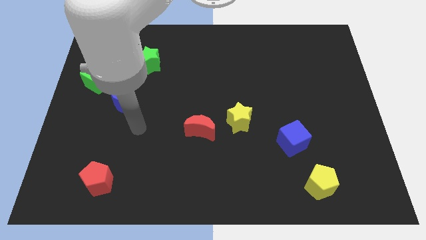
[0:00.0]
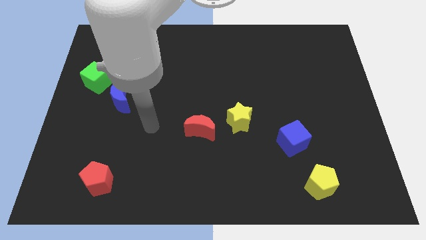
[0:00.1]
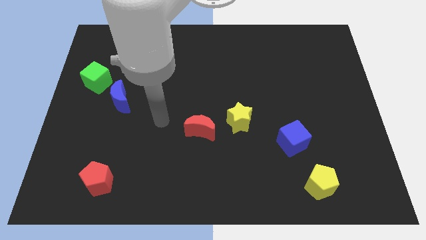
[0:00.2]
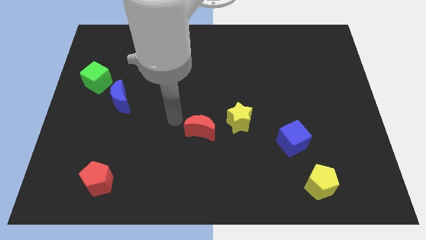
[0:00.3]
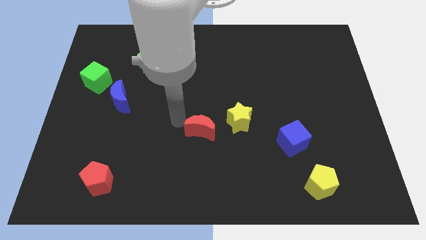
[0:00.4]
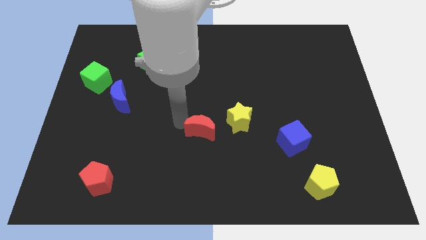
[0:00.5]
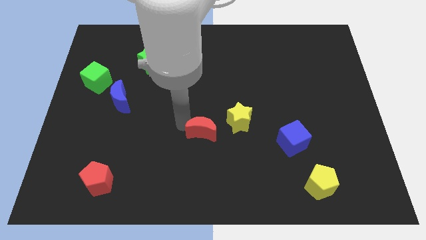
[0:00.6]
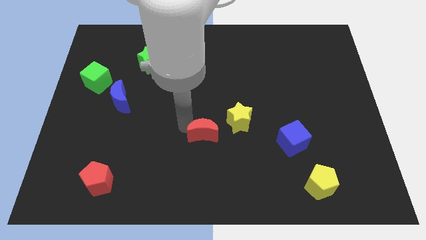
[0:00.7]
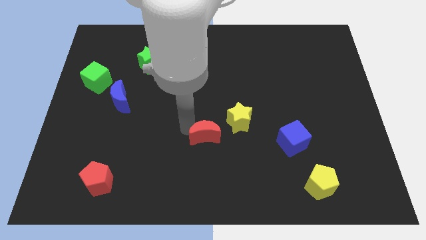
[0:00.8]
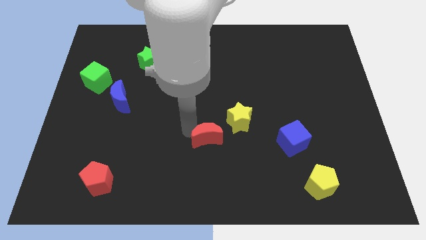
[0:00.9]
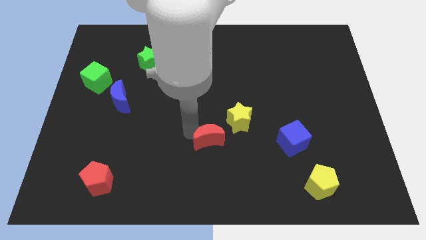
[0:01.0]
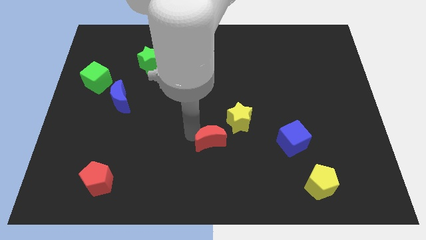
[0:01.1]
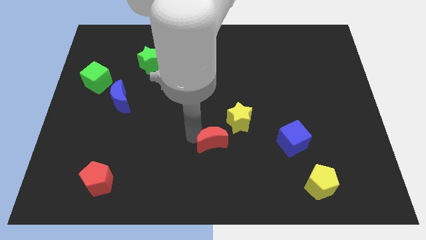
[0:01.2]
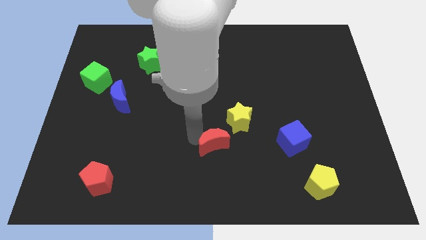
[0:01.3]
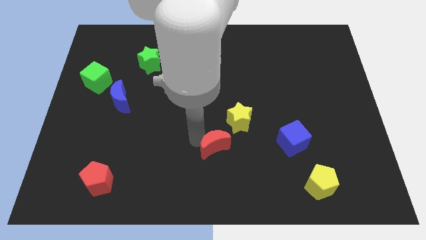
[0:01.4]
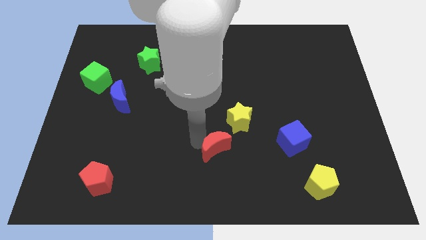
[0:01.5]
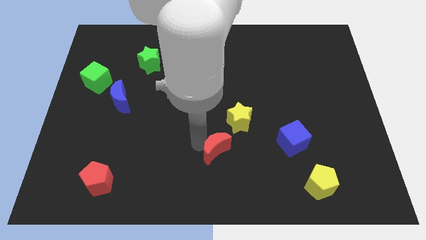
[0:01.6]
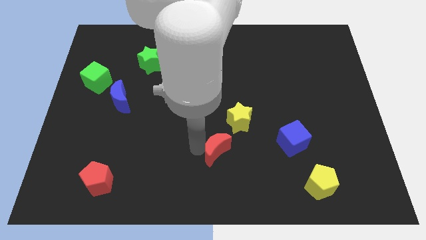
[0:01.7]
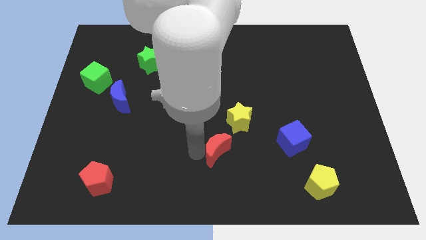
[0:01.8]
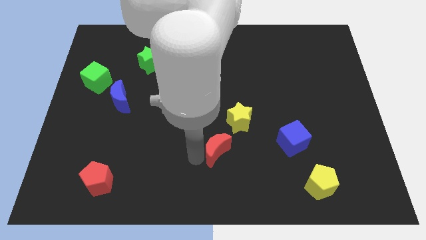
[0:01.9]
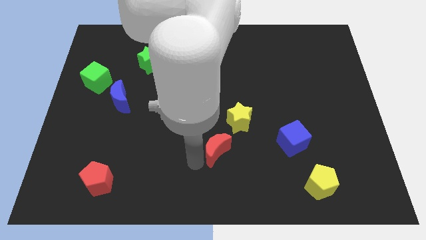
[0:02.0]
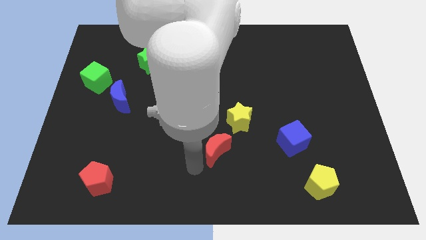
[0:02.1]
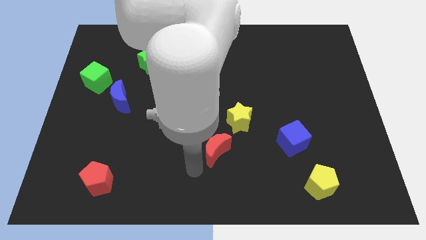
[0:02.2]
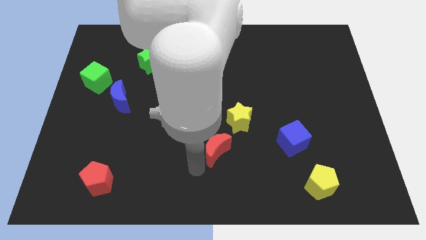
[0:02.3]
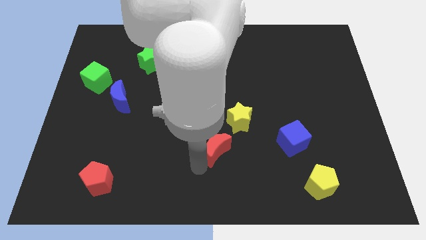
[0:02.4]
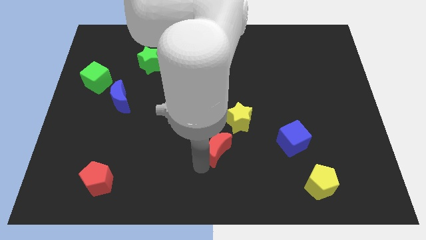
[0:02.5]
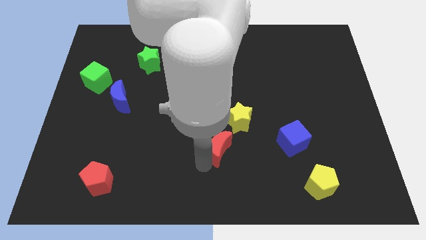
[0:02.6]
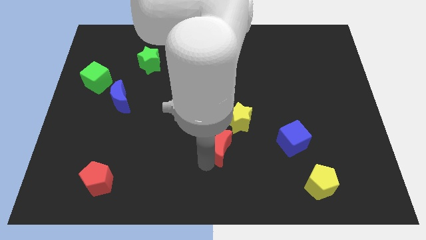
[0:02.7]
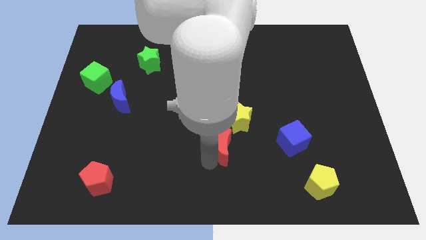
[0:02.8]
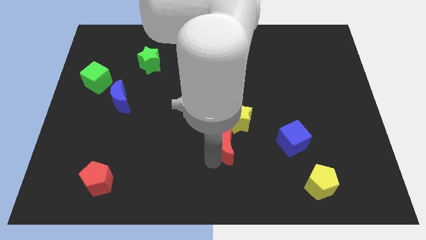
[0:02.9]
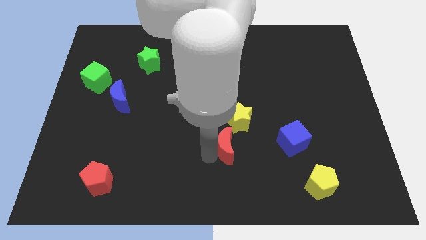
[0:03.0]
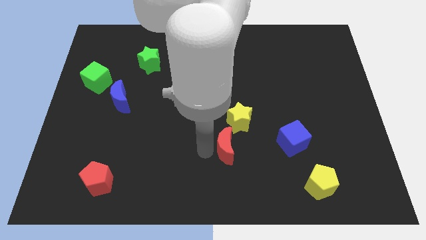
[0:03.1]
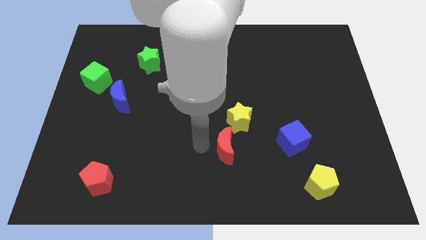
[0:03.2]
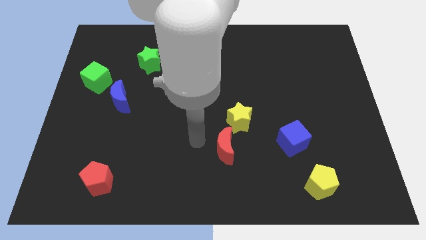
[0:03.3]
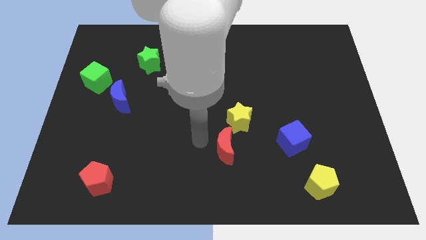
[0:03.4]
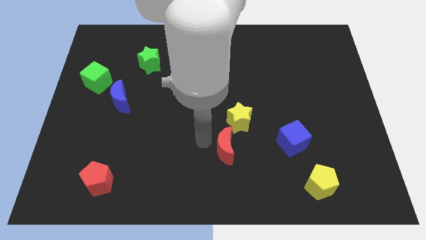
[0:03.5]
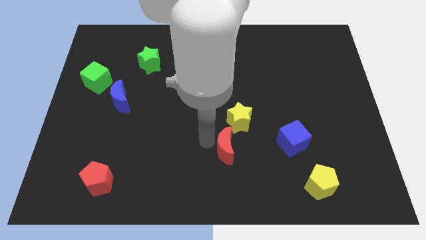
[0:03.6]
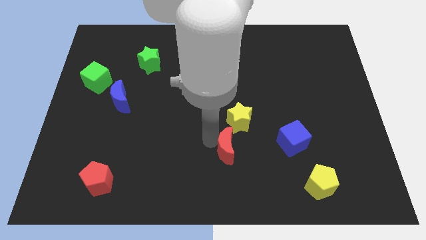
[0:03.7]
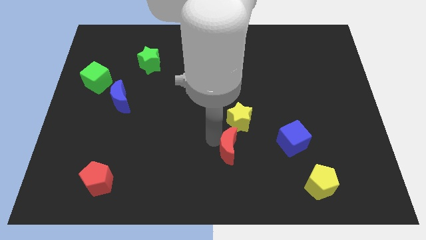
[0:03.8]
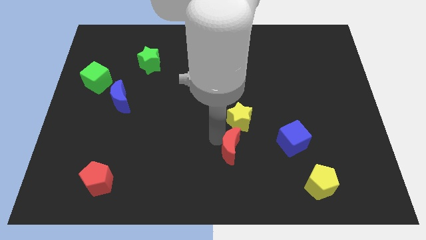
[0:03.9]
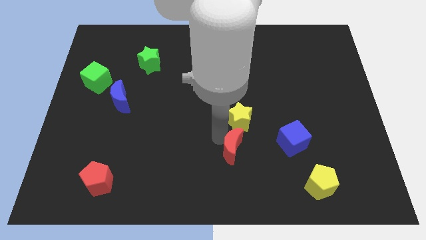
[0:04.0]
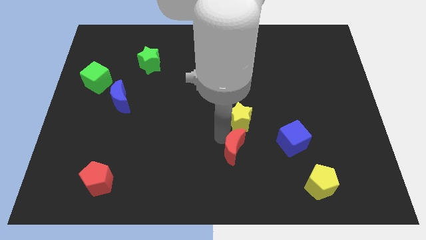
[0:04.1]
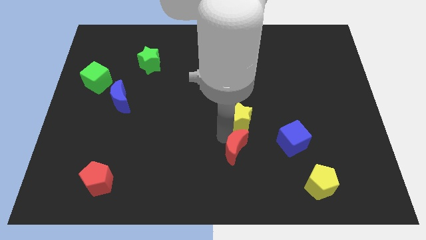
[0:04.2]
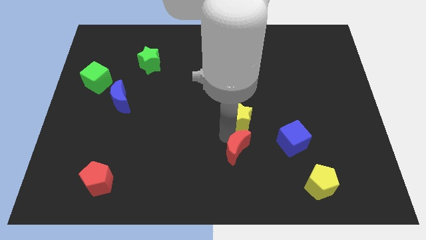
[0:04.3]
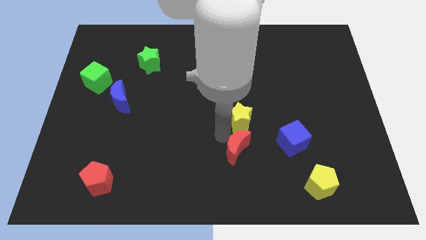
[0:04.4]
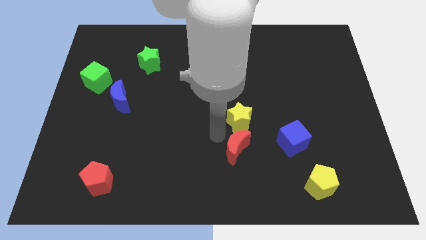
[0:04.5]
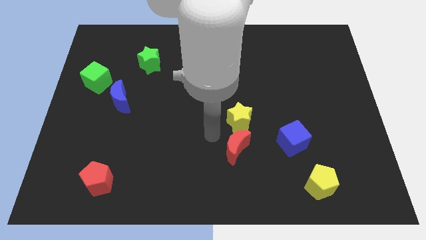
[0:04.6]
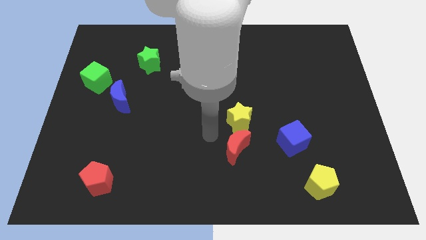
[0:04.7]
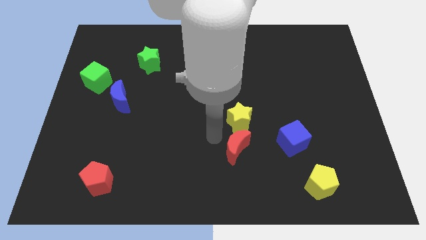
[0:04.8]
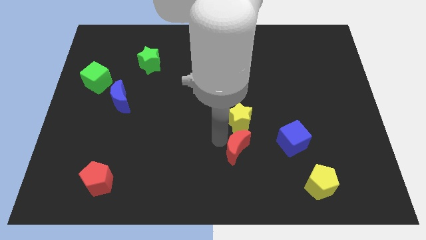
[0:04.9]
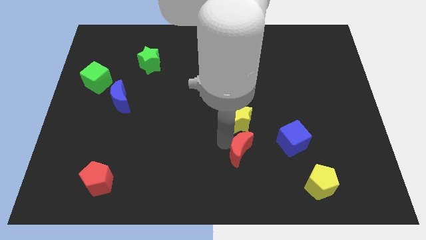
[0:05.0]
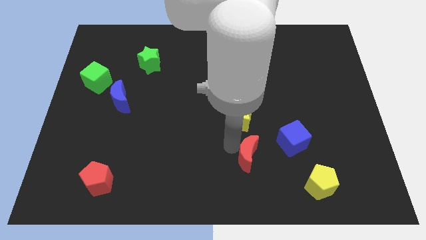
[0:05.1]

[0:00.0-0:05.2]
push the red moon diagonally down and to the left of the blue cube

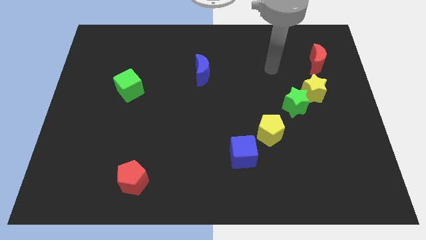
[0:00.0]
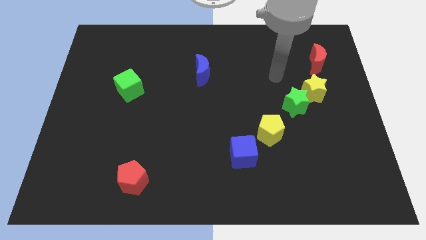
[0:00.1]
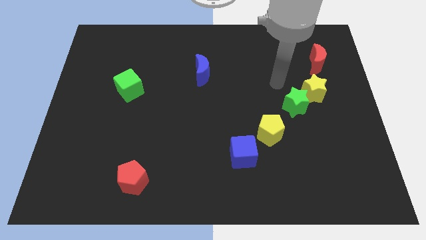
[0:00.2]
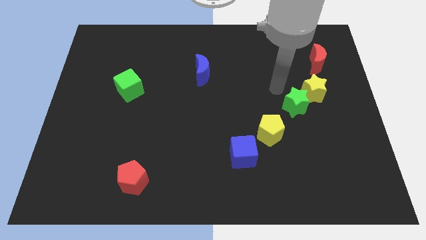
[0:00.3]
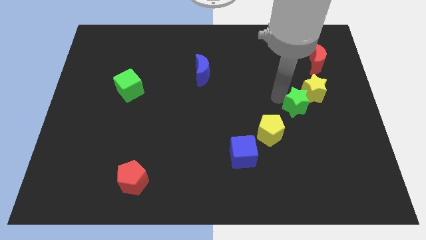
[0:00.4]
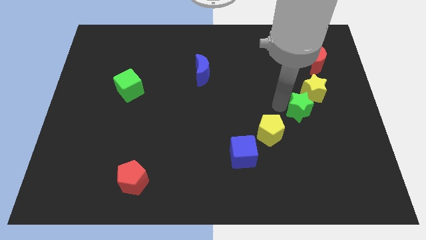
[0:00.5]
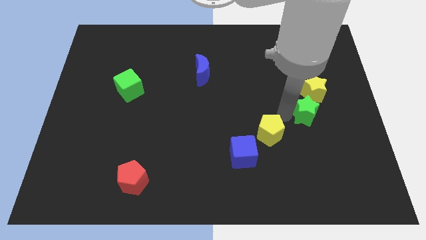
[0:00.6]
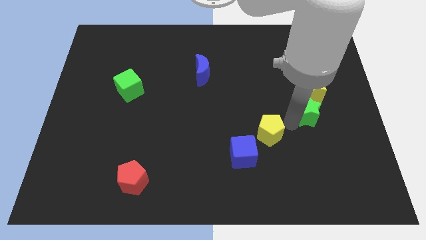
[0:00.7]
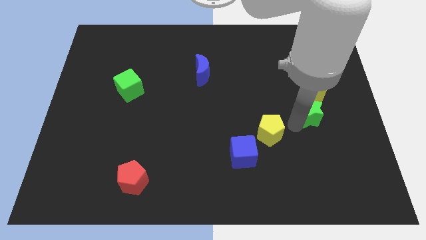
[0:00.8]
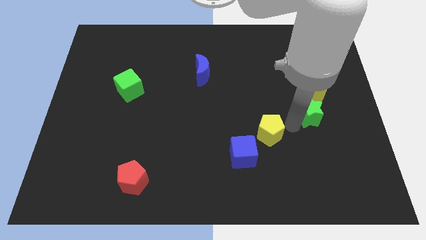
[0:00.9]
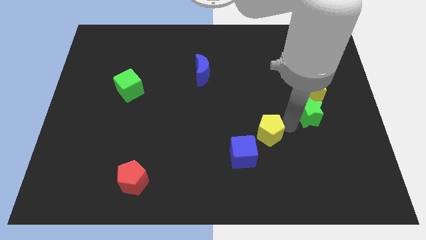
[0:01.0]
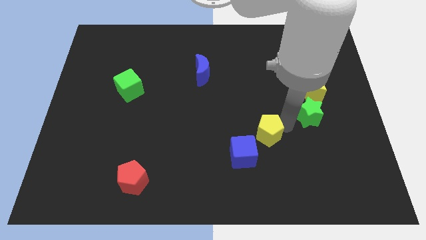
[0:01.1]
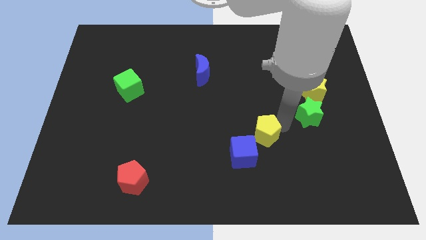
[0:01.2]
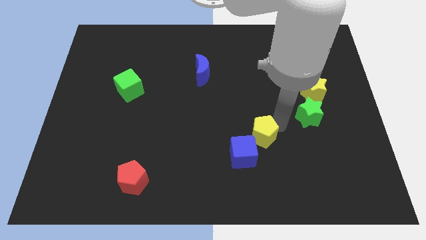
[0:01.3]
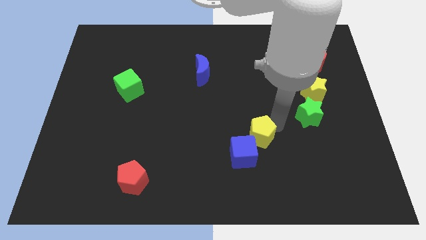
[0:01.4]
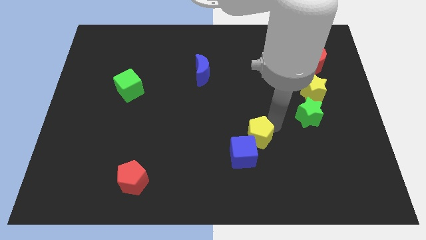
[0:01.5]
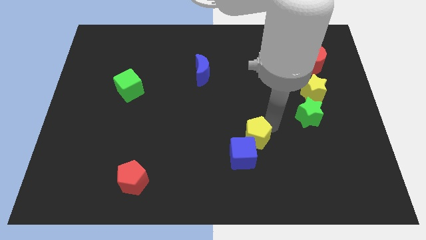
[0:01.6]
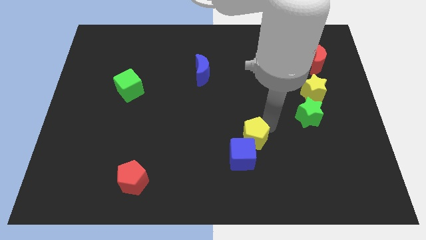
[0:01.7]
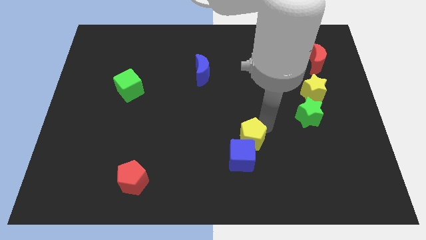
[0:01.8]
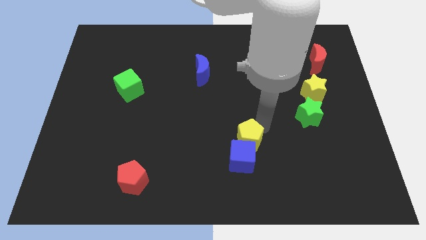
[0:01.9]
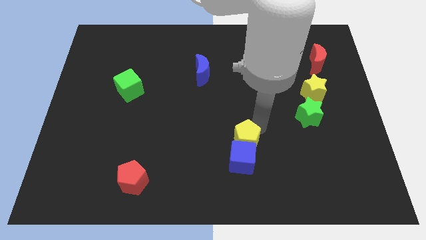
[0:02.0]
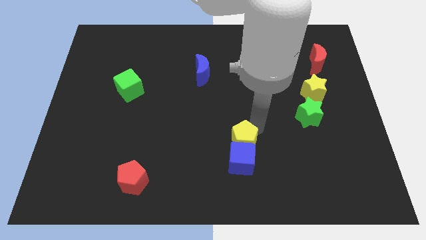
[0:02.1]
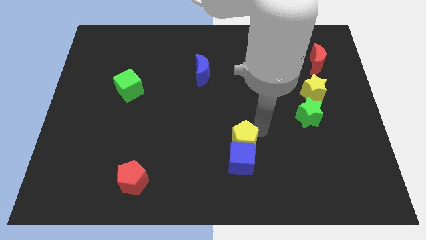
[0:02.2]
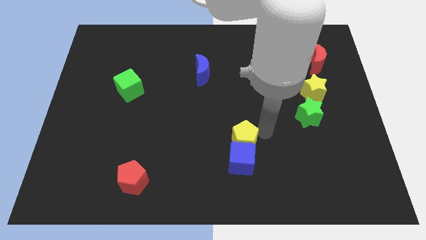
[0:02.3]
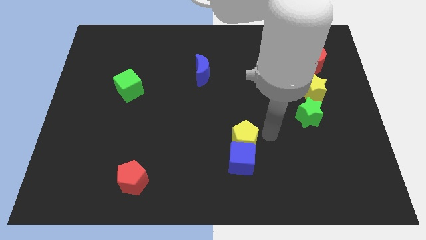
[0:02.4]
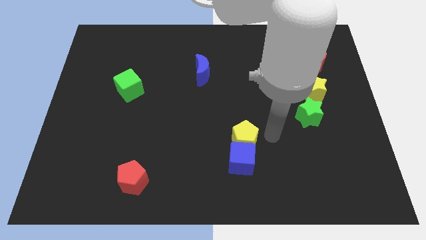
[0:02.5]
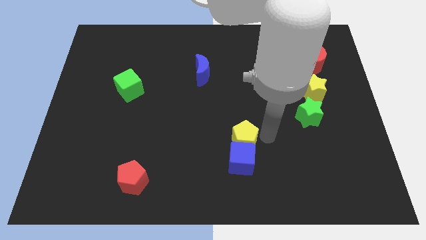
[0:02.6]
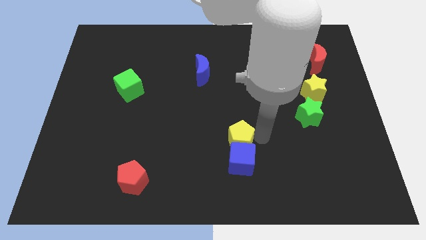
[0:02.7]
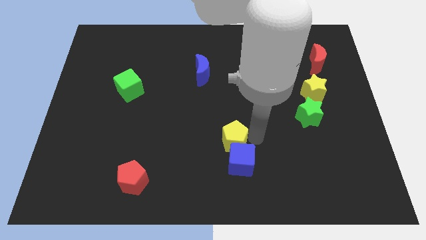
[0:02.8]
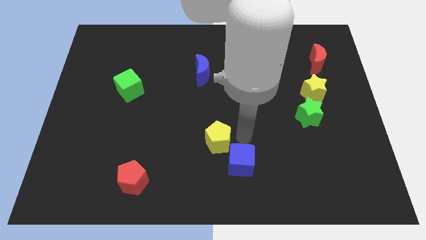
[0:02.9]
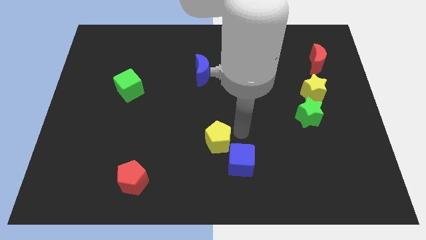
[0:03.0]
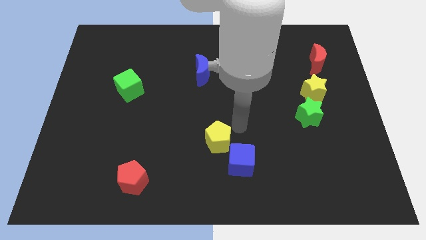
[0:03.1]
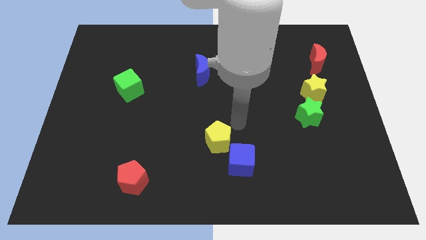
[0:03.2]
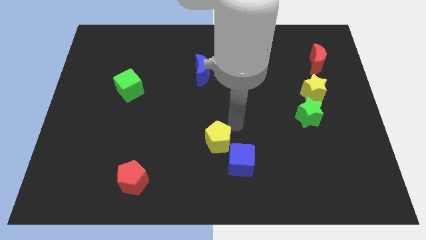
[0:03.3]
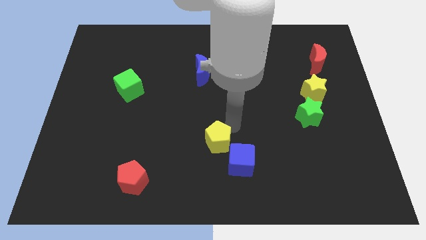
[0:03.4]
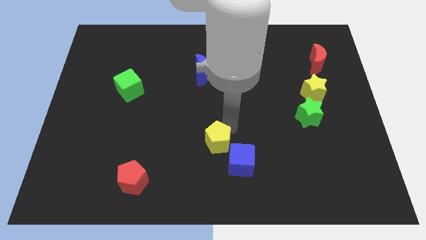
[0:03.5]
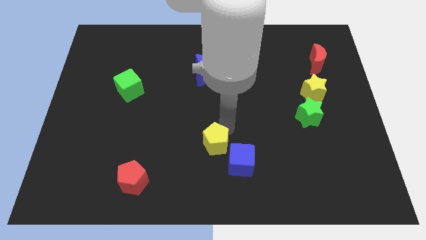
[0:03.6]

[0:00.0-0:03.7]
push the yellow pentagon to the left side of the blue cube
